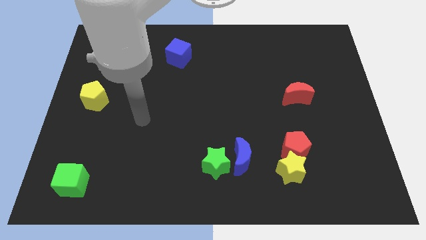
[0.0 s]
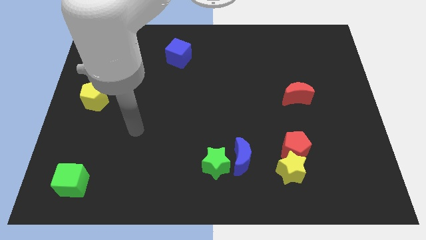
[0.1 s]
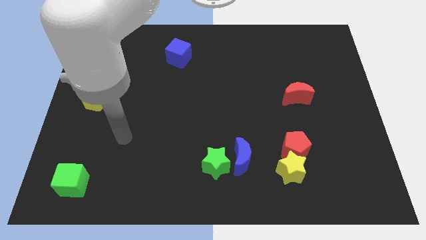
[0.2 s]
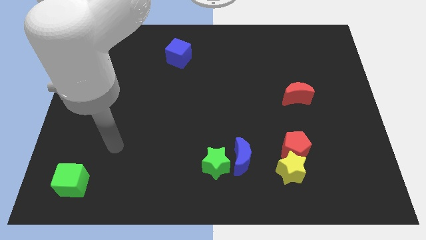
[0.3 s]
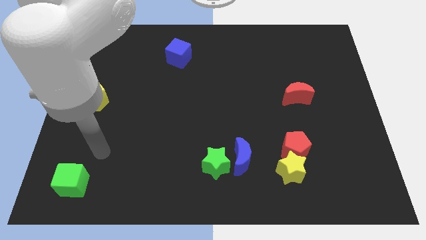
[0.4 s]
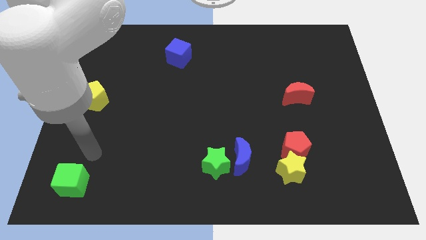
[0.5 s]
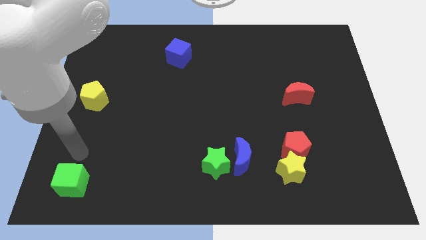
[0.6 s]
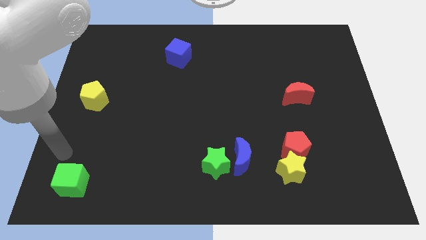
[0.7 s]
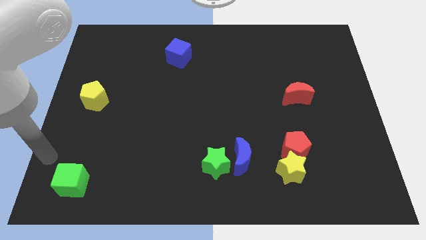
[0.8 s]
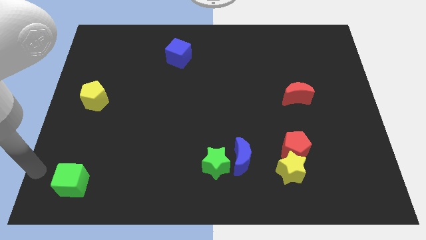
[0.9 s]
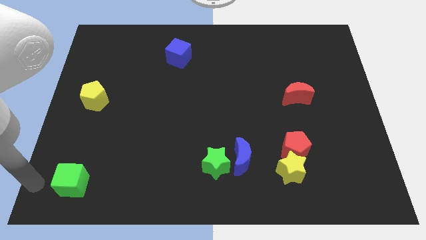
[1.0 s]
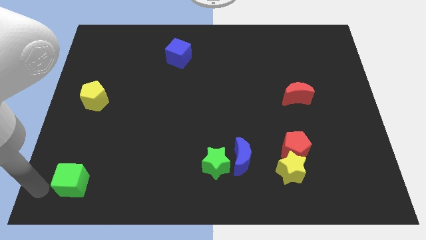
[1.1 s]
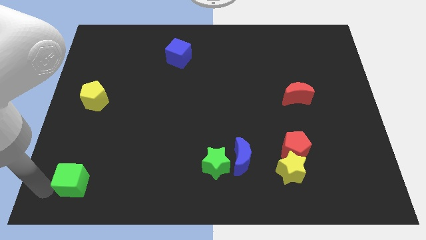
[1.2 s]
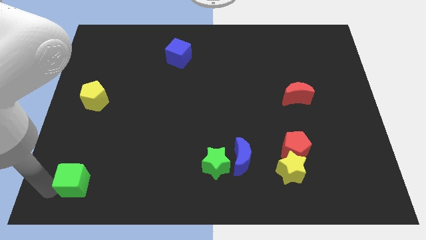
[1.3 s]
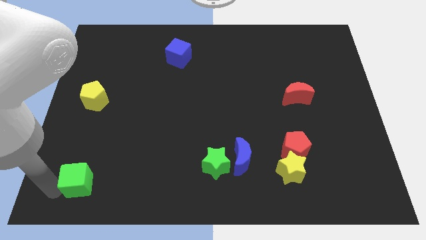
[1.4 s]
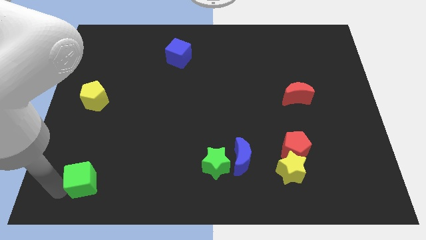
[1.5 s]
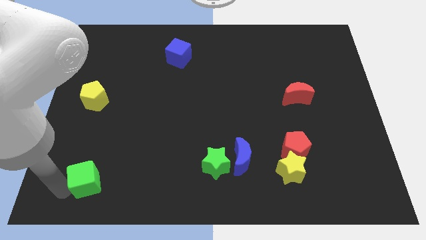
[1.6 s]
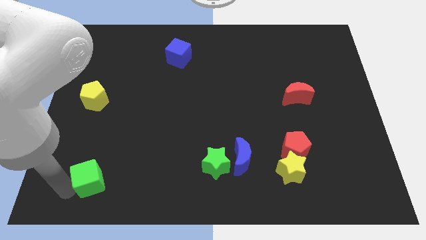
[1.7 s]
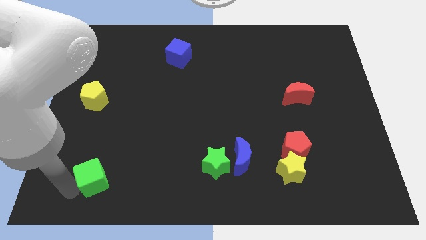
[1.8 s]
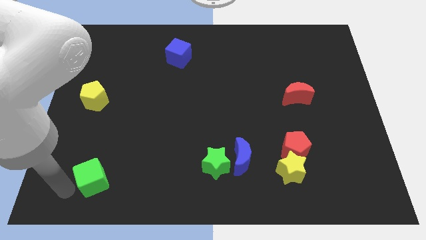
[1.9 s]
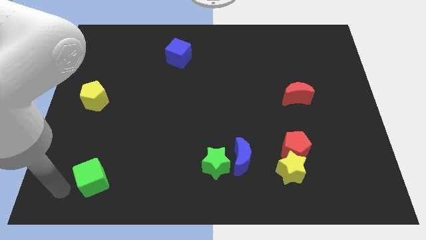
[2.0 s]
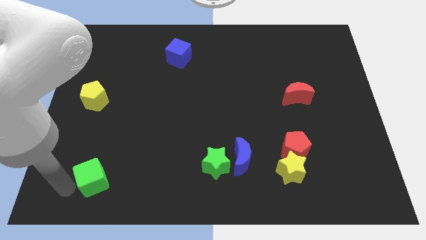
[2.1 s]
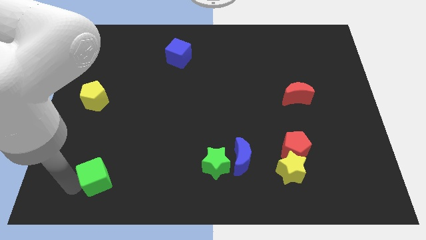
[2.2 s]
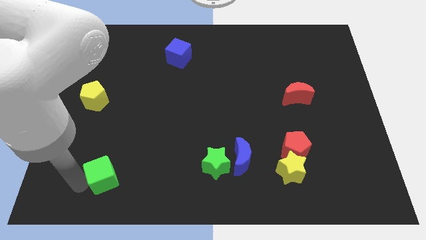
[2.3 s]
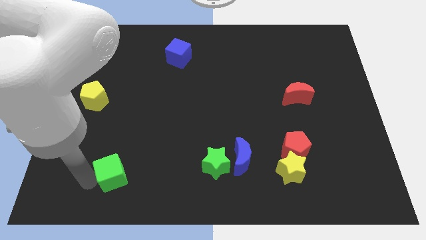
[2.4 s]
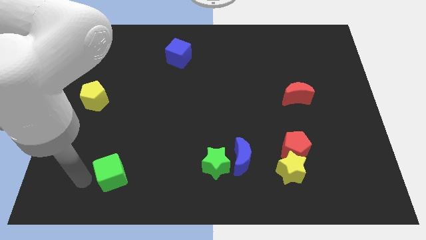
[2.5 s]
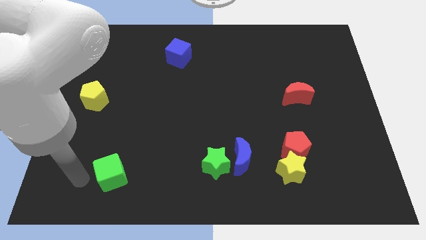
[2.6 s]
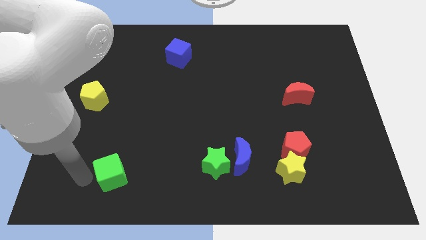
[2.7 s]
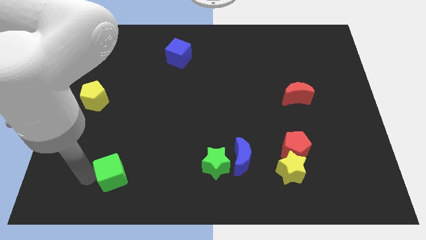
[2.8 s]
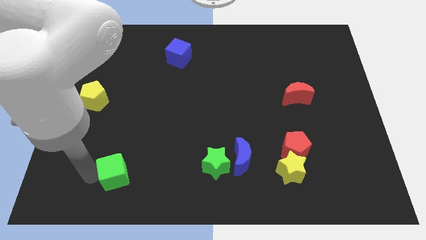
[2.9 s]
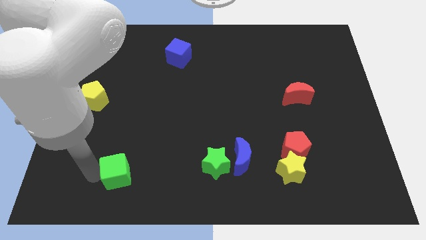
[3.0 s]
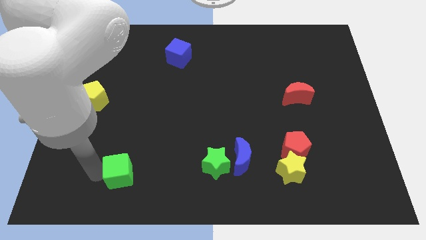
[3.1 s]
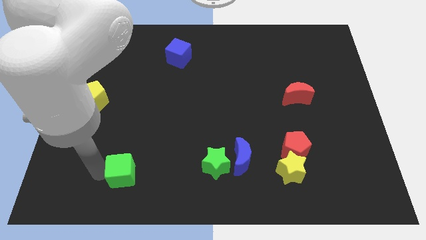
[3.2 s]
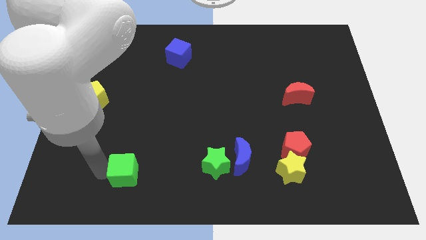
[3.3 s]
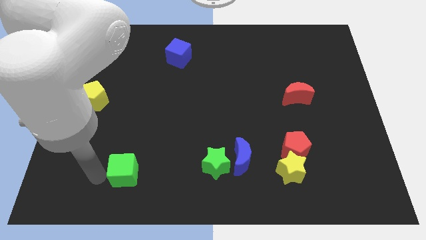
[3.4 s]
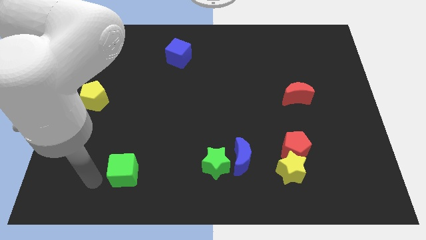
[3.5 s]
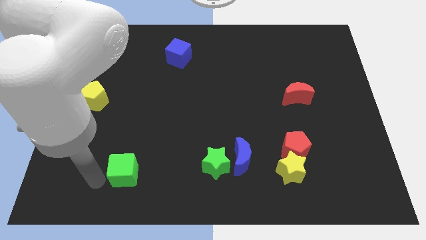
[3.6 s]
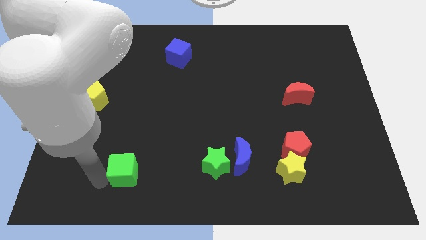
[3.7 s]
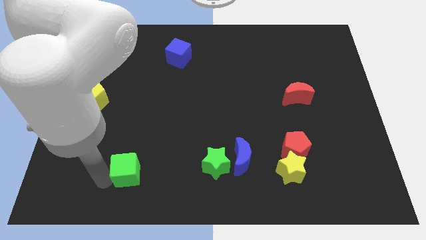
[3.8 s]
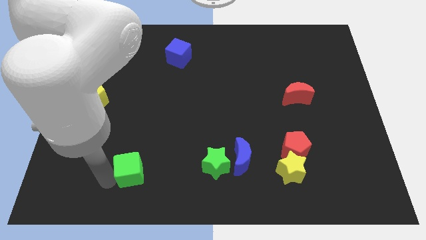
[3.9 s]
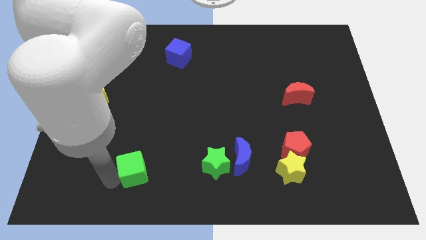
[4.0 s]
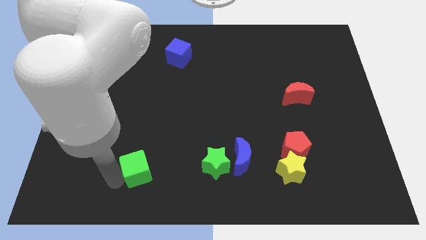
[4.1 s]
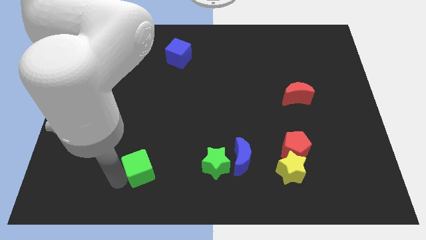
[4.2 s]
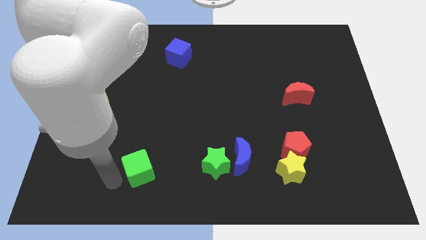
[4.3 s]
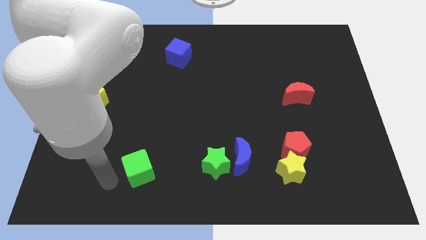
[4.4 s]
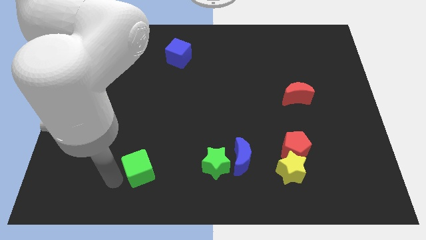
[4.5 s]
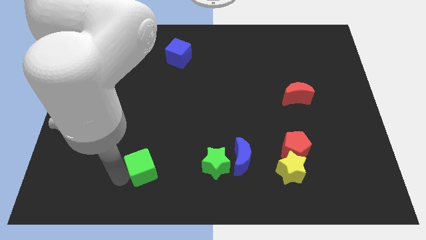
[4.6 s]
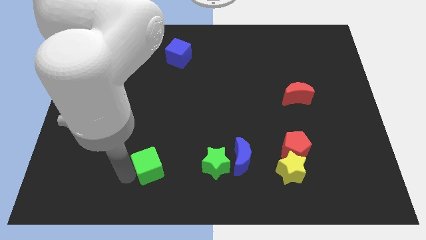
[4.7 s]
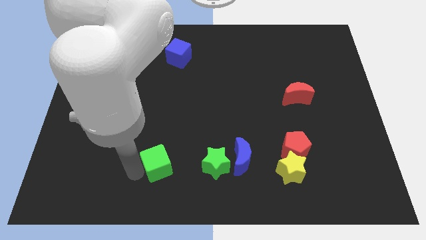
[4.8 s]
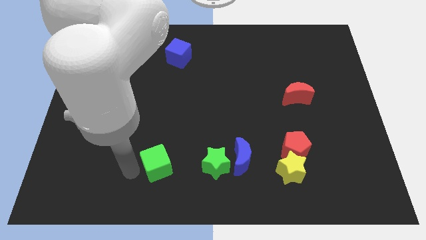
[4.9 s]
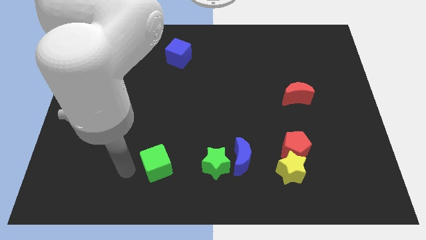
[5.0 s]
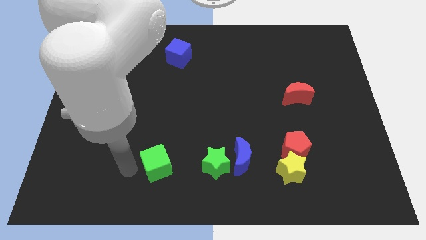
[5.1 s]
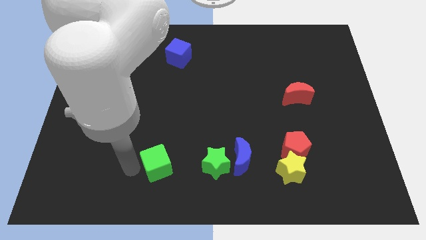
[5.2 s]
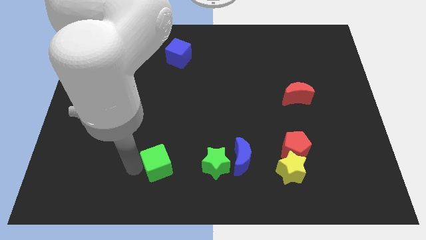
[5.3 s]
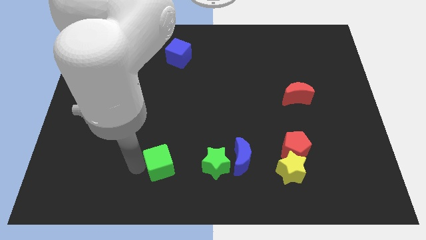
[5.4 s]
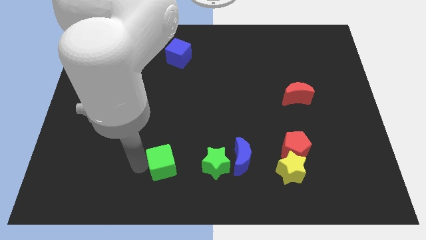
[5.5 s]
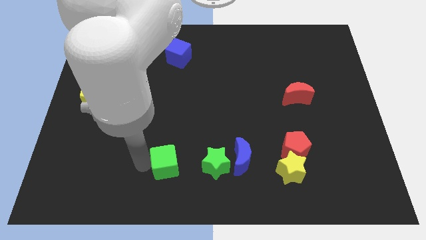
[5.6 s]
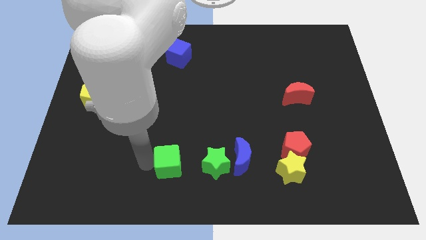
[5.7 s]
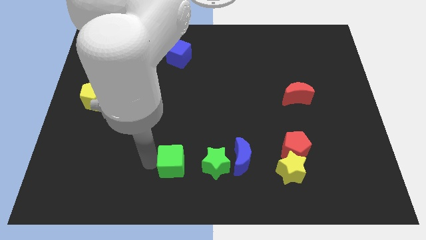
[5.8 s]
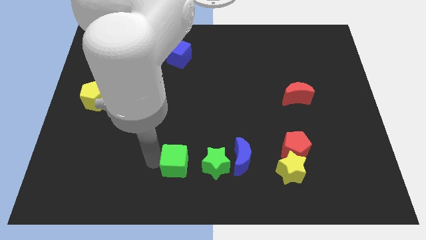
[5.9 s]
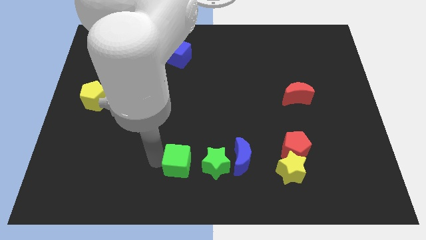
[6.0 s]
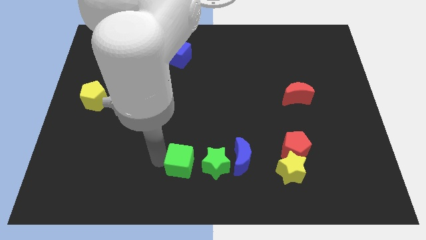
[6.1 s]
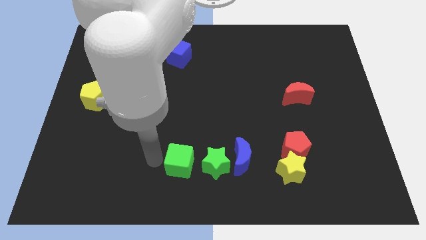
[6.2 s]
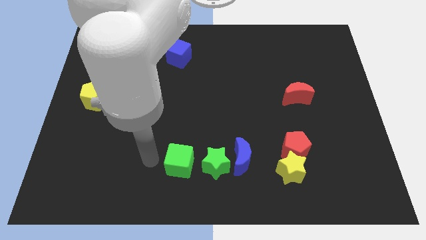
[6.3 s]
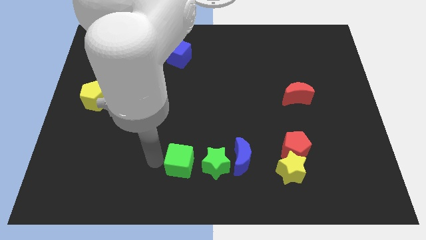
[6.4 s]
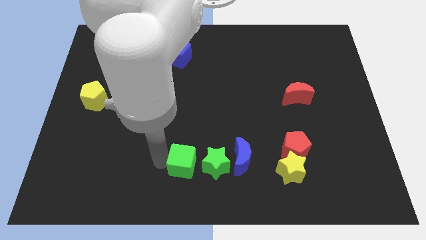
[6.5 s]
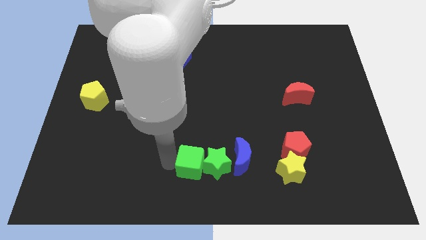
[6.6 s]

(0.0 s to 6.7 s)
slide the green cube to the green star

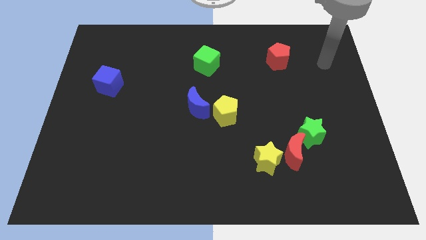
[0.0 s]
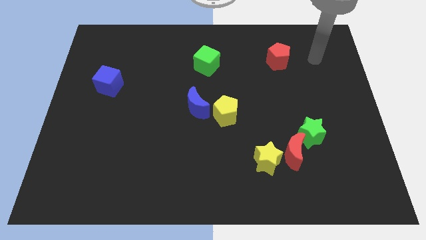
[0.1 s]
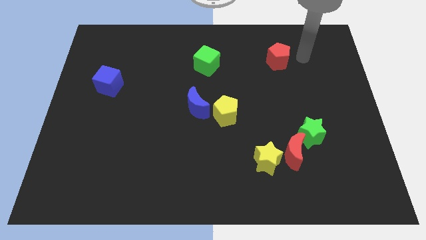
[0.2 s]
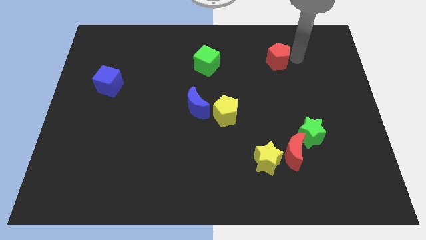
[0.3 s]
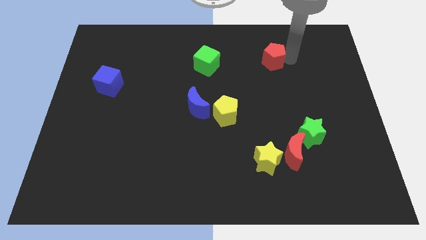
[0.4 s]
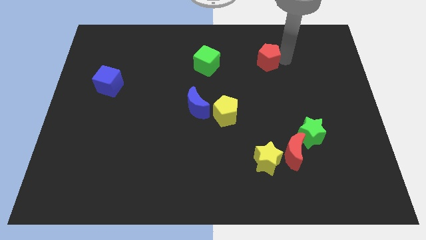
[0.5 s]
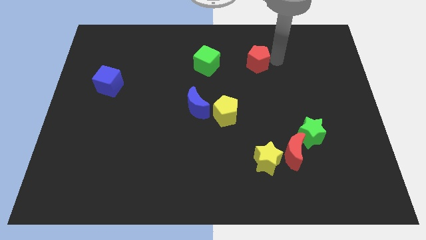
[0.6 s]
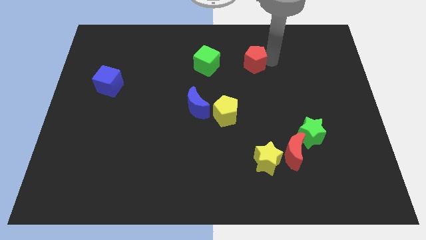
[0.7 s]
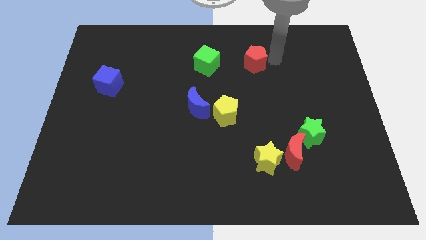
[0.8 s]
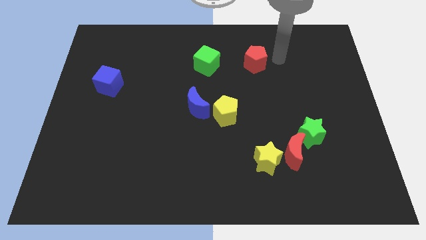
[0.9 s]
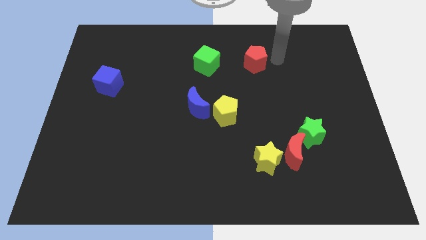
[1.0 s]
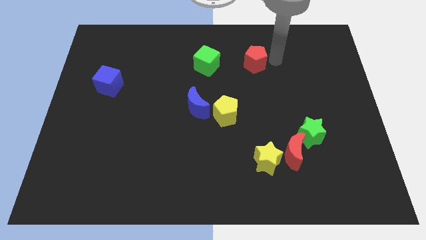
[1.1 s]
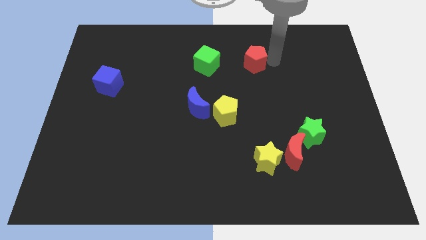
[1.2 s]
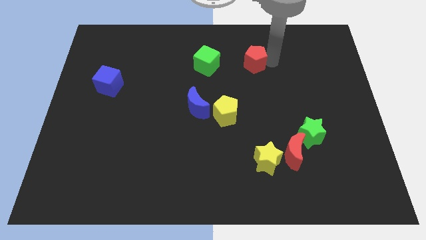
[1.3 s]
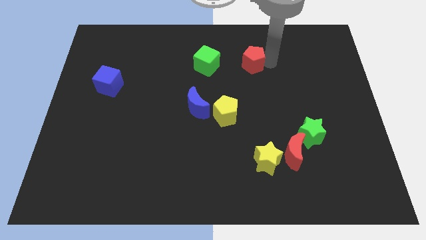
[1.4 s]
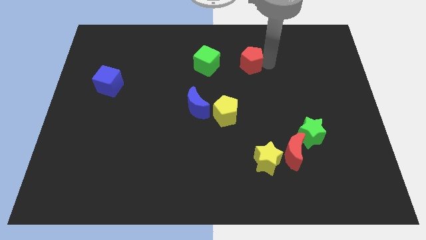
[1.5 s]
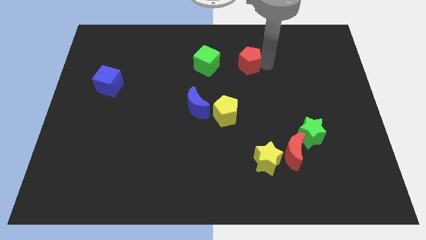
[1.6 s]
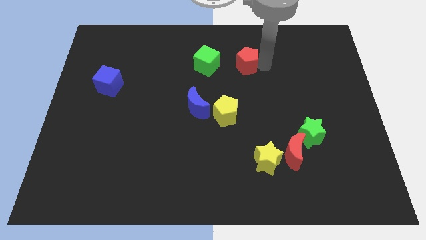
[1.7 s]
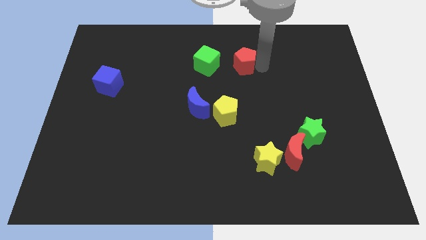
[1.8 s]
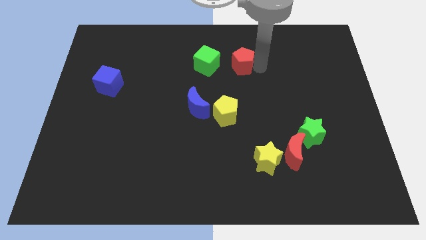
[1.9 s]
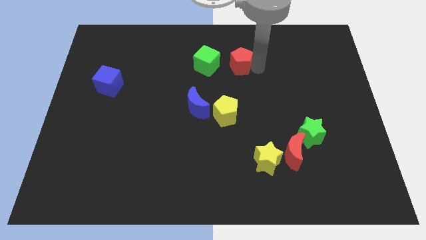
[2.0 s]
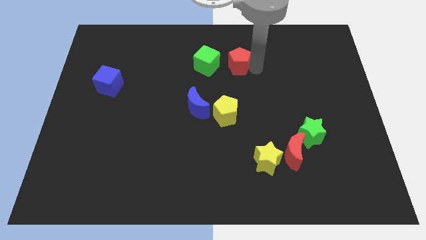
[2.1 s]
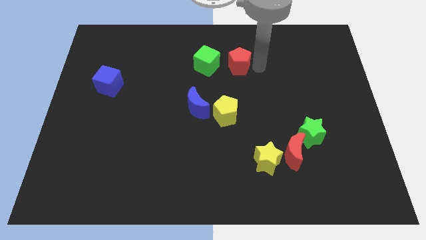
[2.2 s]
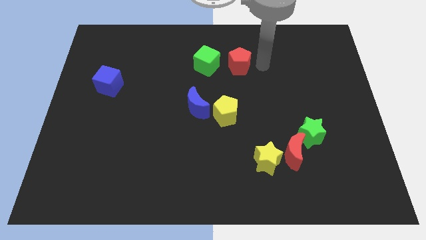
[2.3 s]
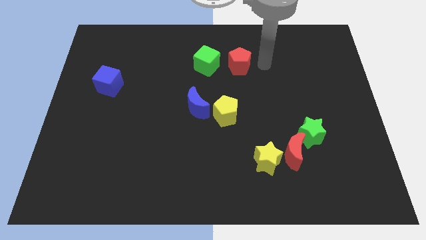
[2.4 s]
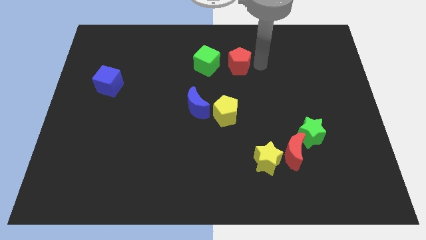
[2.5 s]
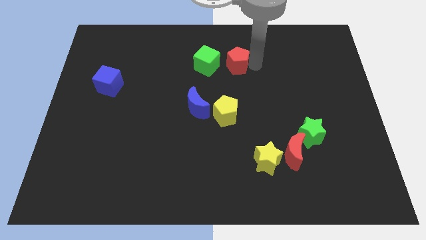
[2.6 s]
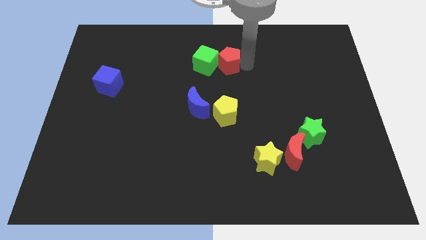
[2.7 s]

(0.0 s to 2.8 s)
put the red pentagon close to the green cube
